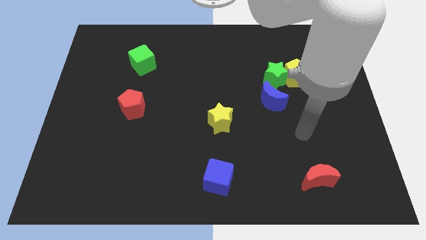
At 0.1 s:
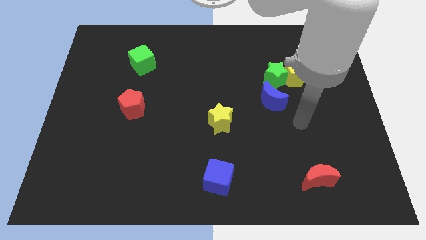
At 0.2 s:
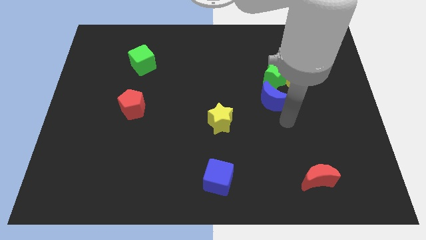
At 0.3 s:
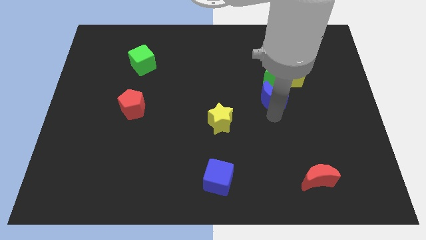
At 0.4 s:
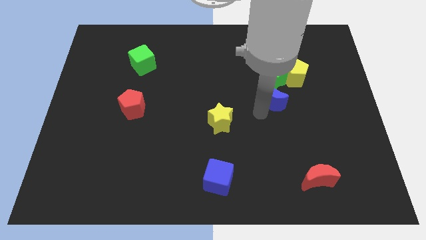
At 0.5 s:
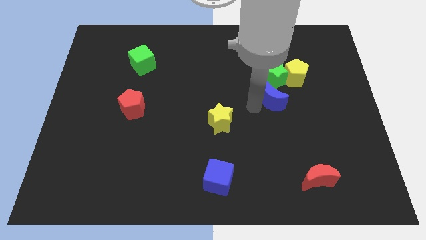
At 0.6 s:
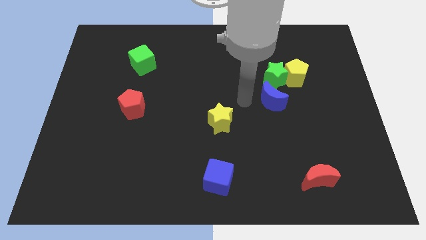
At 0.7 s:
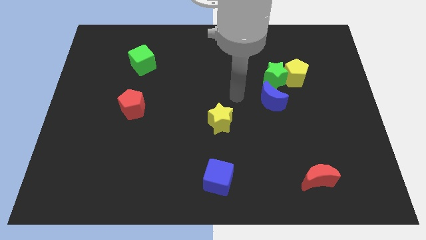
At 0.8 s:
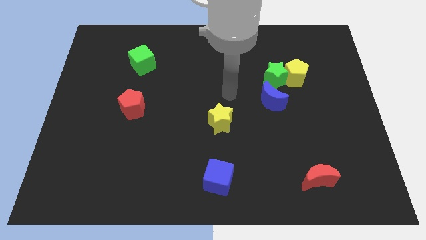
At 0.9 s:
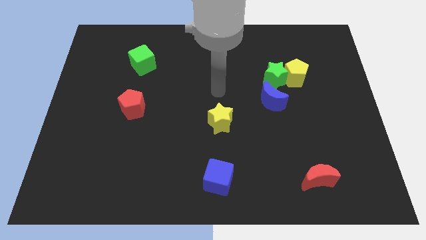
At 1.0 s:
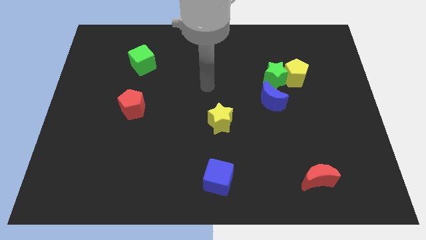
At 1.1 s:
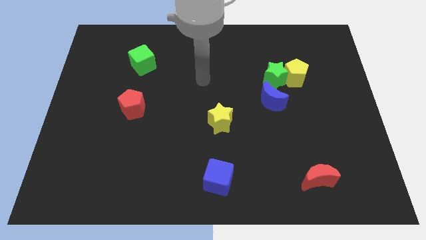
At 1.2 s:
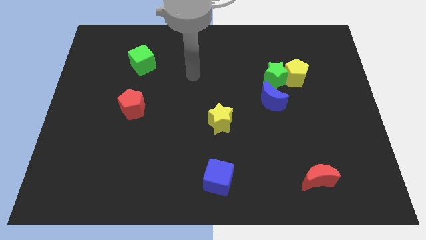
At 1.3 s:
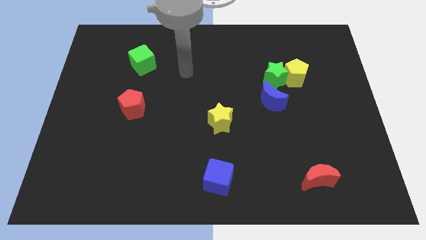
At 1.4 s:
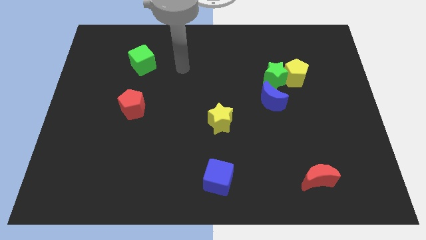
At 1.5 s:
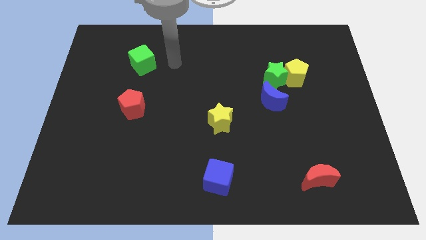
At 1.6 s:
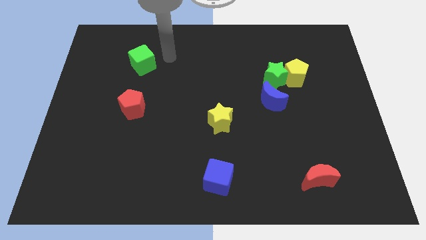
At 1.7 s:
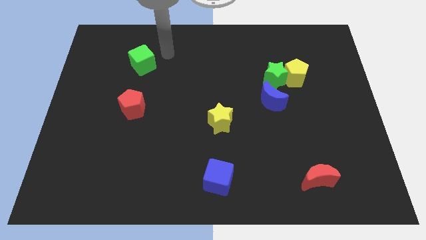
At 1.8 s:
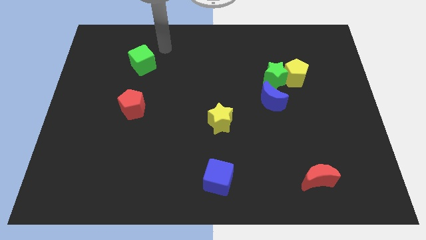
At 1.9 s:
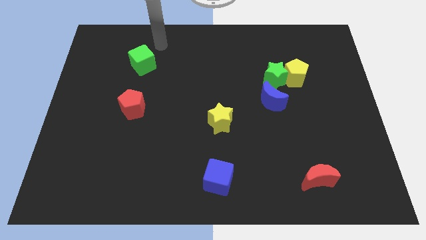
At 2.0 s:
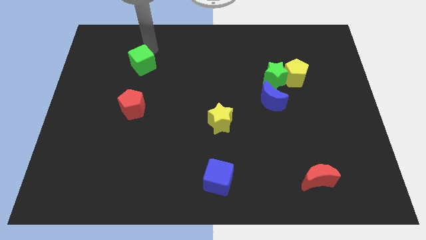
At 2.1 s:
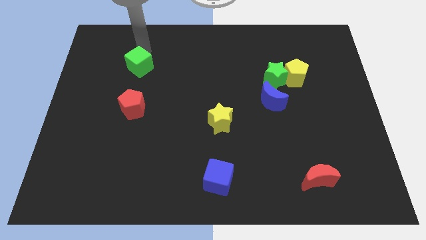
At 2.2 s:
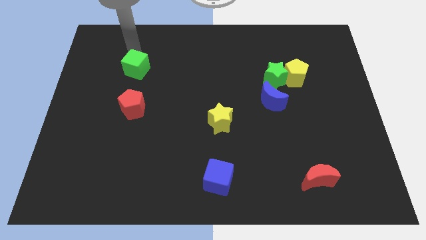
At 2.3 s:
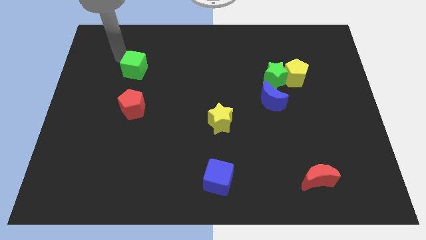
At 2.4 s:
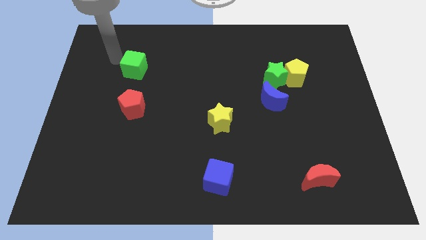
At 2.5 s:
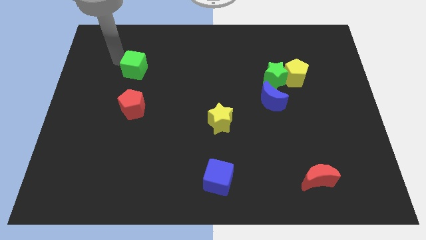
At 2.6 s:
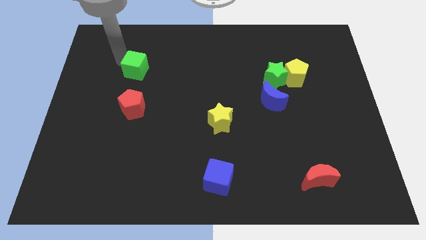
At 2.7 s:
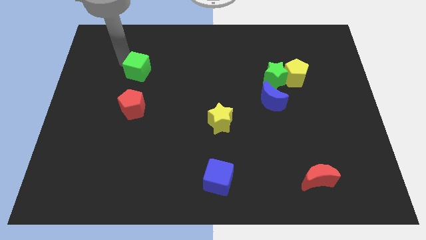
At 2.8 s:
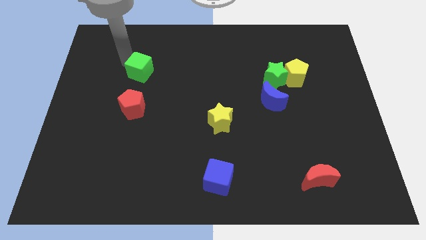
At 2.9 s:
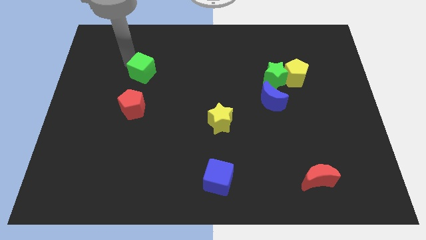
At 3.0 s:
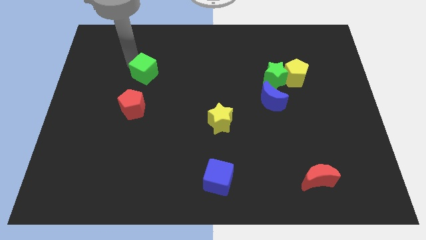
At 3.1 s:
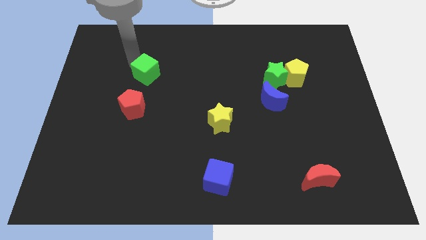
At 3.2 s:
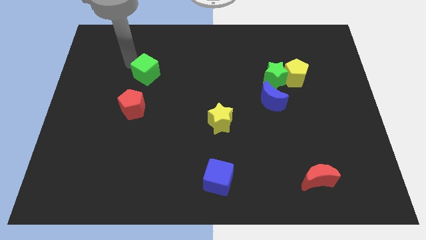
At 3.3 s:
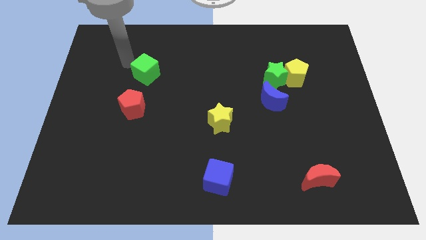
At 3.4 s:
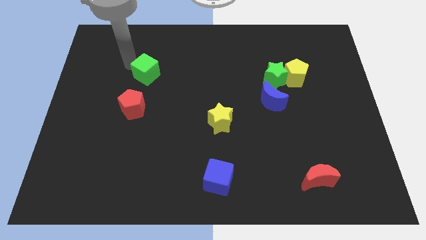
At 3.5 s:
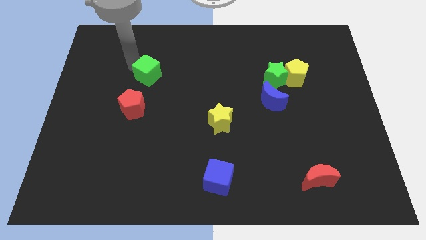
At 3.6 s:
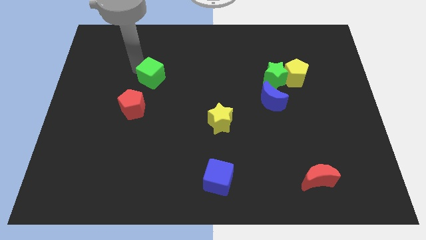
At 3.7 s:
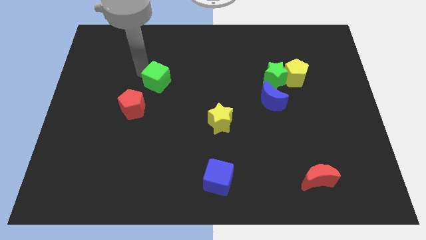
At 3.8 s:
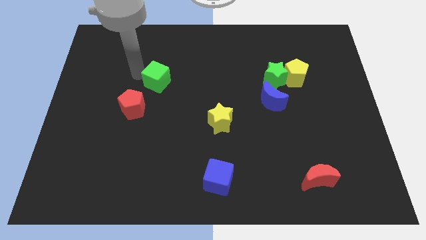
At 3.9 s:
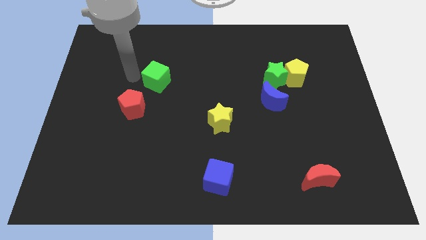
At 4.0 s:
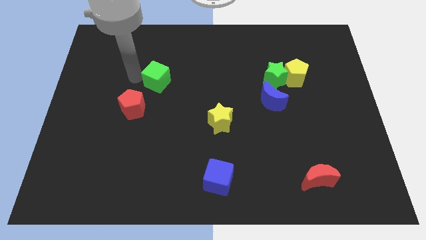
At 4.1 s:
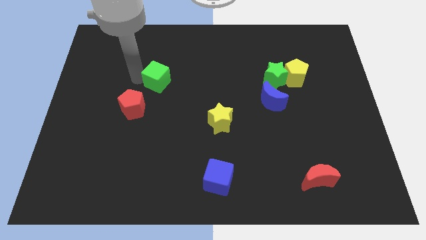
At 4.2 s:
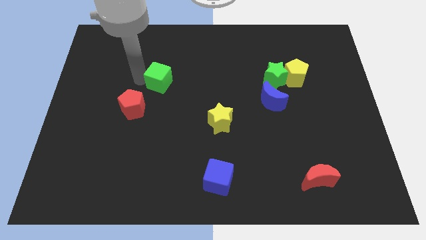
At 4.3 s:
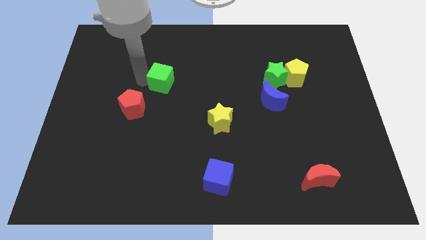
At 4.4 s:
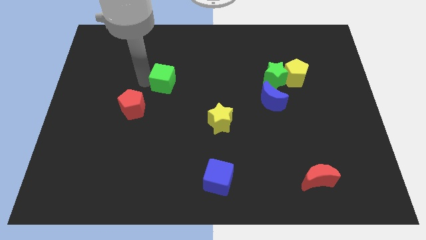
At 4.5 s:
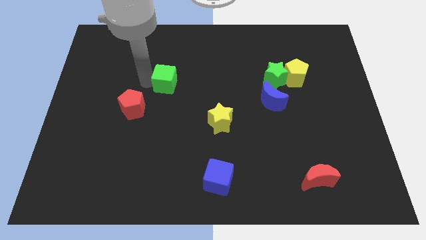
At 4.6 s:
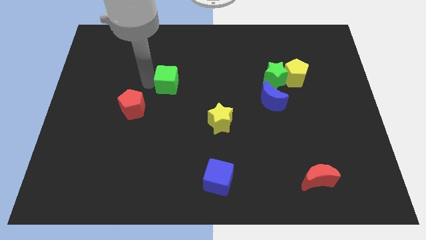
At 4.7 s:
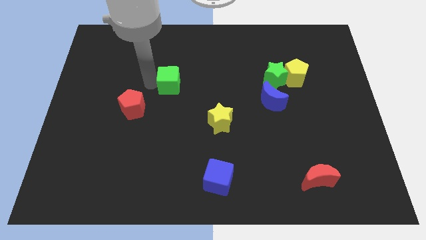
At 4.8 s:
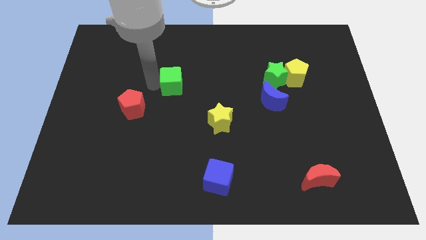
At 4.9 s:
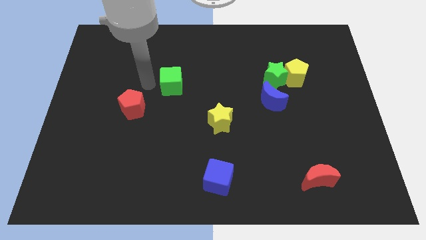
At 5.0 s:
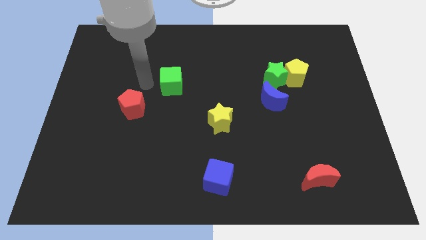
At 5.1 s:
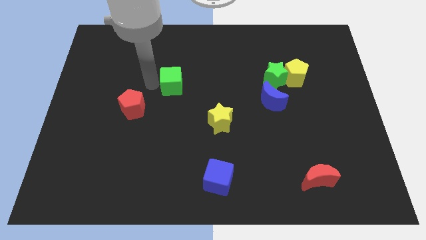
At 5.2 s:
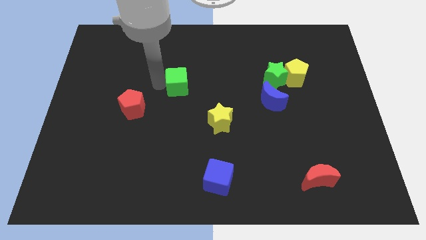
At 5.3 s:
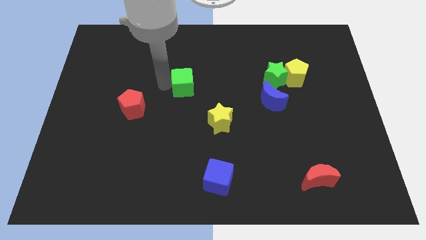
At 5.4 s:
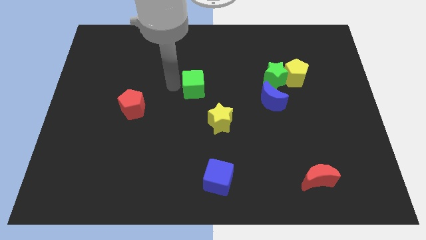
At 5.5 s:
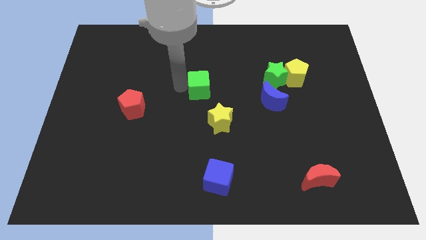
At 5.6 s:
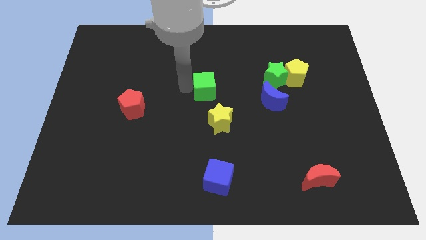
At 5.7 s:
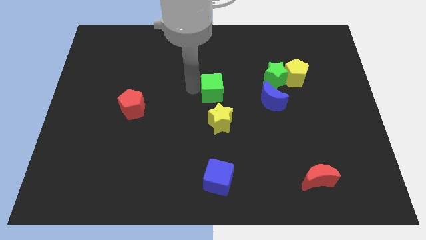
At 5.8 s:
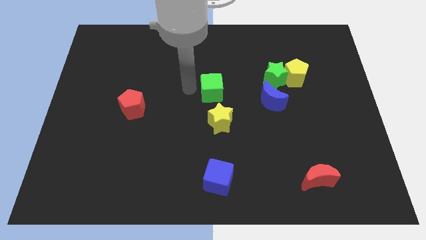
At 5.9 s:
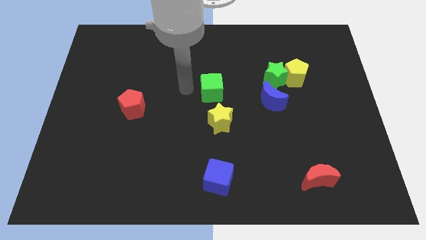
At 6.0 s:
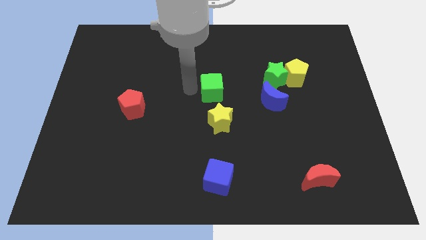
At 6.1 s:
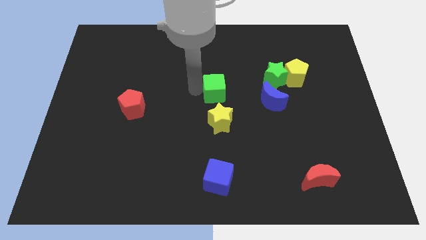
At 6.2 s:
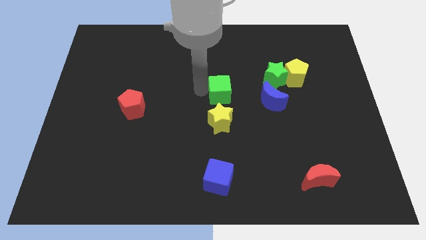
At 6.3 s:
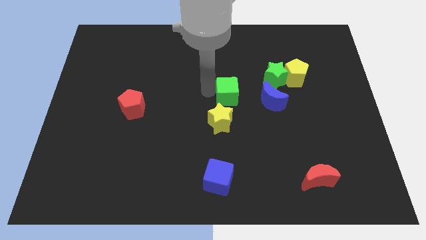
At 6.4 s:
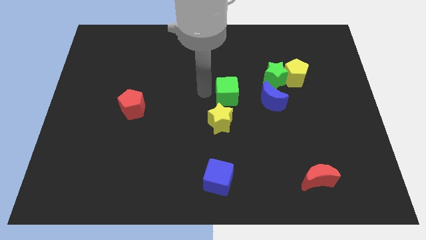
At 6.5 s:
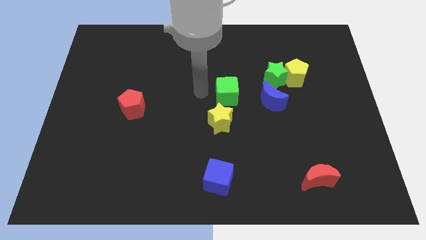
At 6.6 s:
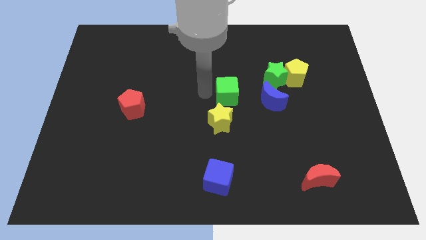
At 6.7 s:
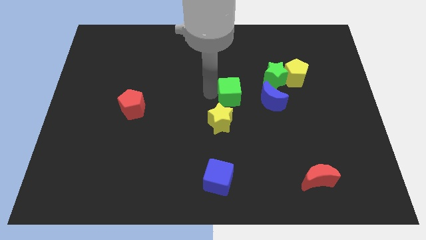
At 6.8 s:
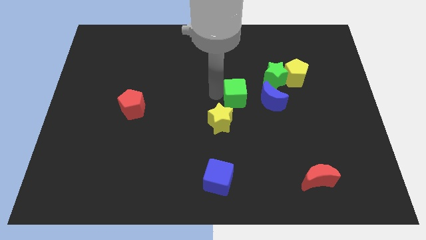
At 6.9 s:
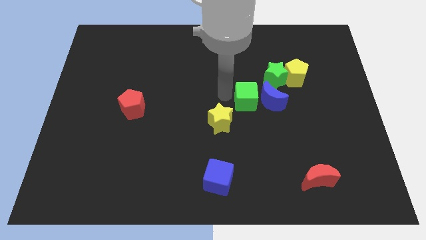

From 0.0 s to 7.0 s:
push the green cube towards the blue moon
